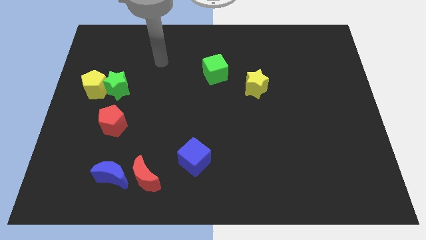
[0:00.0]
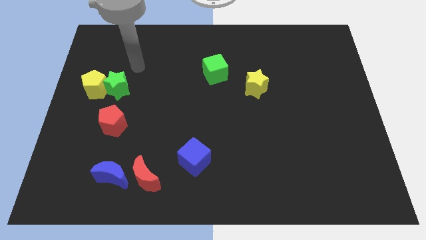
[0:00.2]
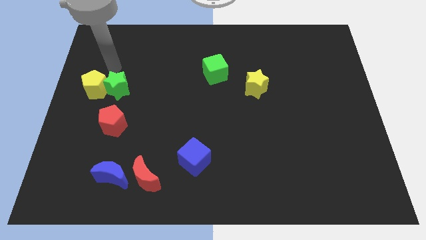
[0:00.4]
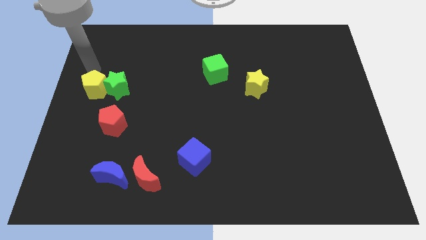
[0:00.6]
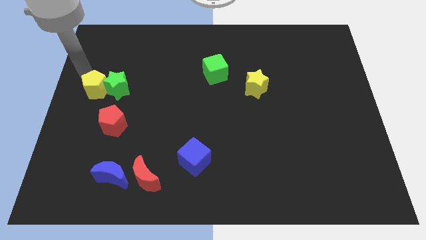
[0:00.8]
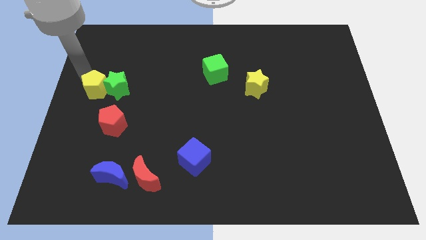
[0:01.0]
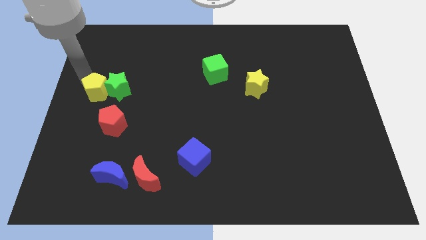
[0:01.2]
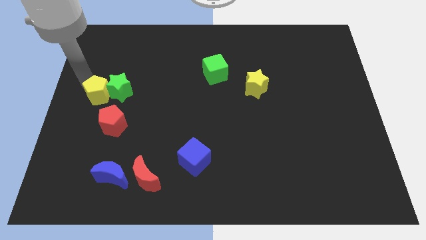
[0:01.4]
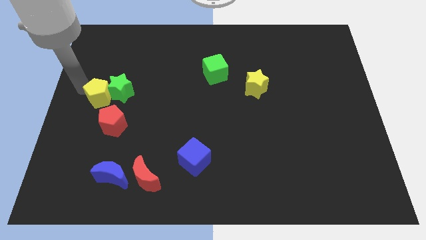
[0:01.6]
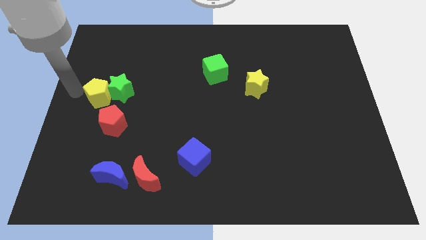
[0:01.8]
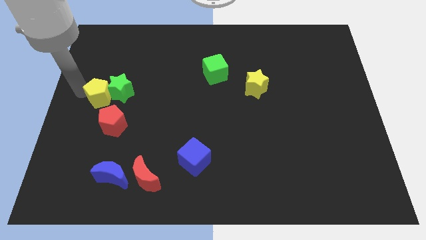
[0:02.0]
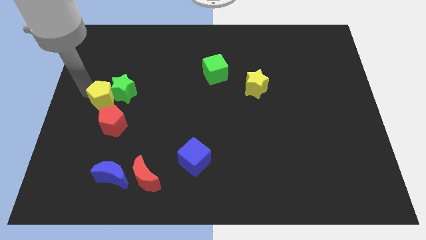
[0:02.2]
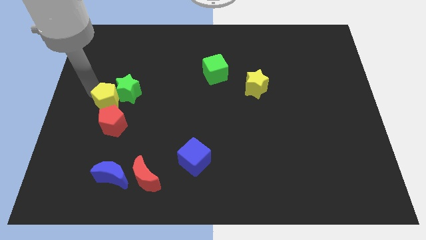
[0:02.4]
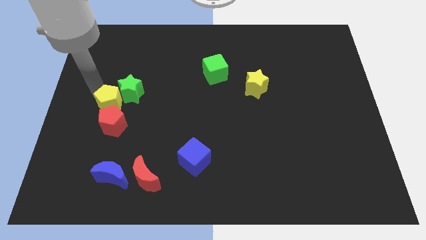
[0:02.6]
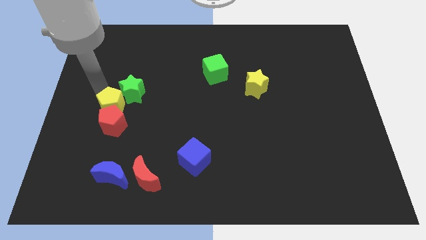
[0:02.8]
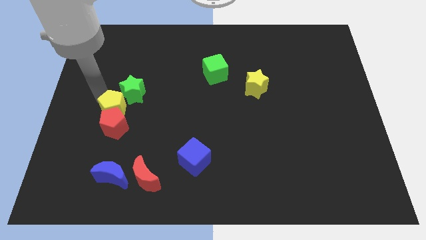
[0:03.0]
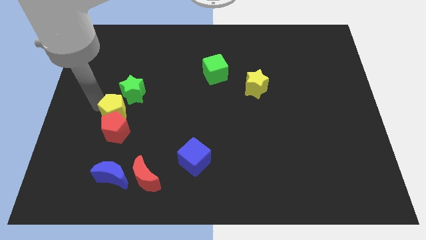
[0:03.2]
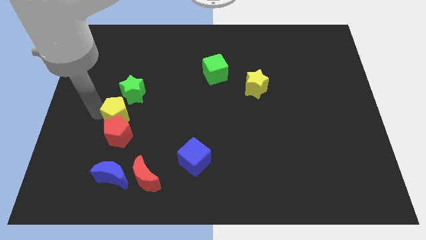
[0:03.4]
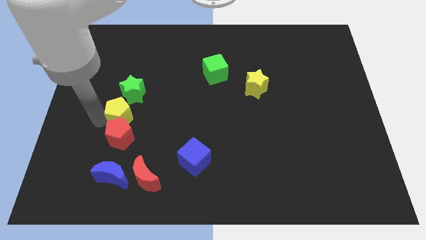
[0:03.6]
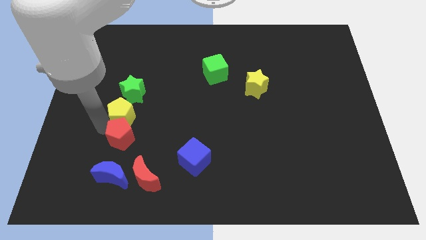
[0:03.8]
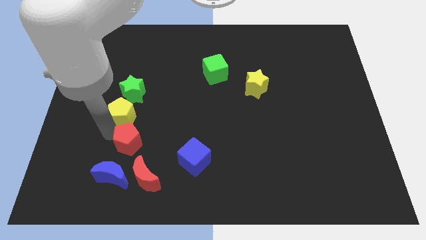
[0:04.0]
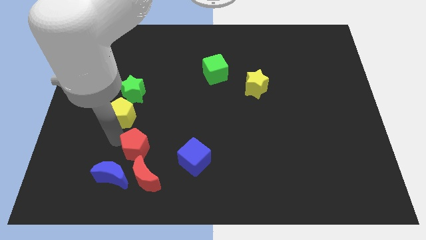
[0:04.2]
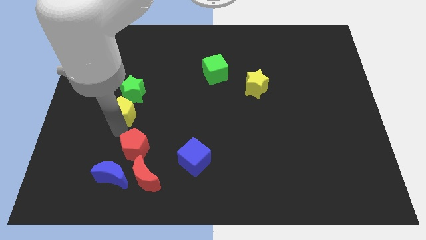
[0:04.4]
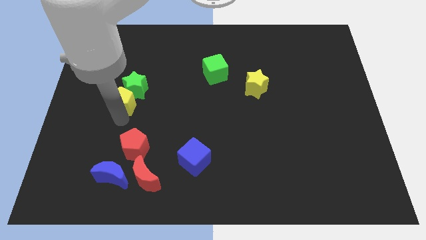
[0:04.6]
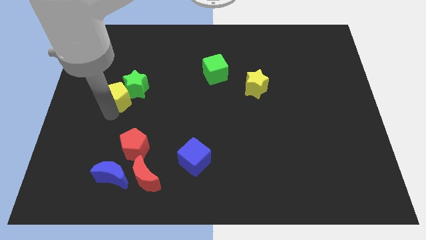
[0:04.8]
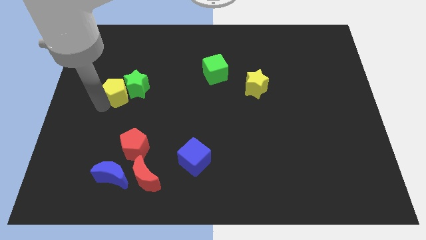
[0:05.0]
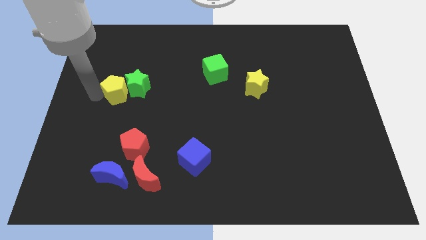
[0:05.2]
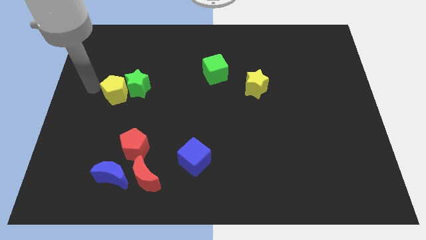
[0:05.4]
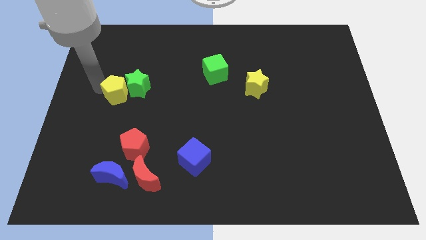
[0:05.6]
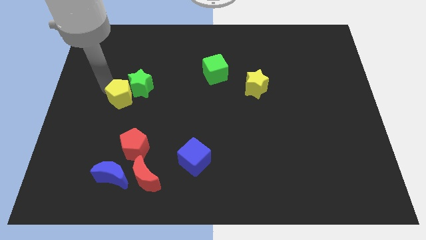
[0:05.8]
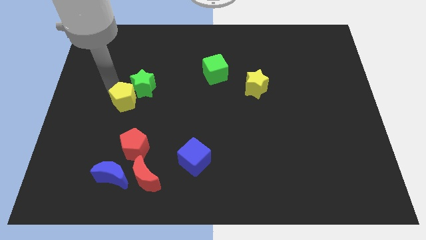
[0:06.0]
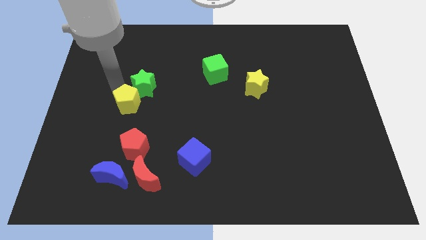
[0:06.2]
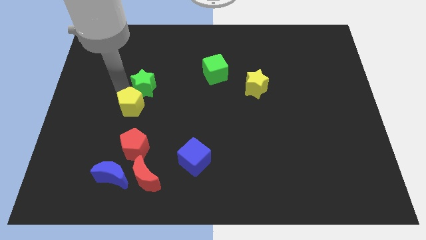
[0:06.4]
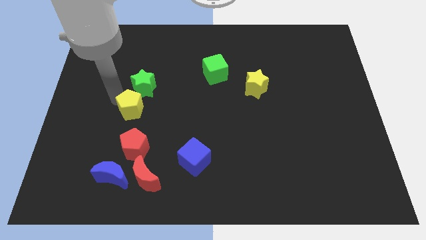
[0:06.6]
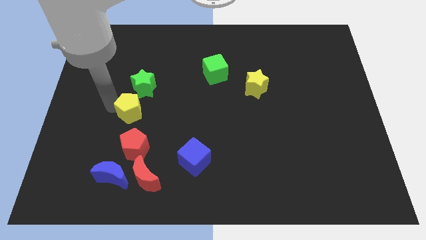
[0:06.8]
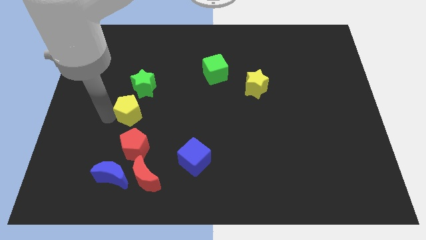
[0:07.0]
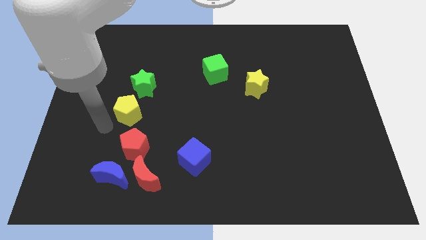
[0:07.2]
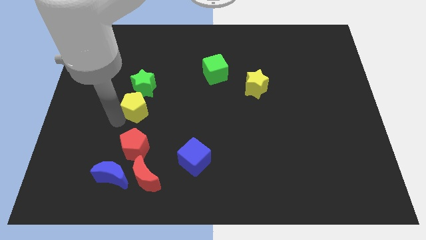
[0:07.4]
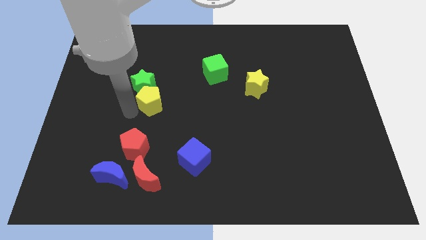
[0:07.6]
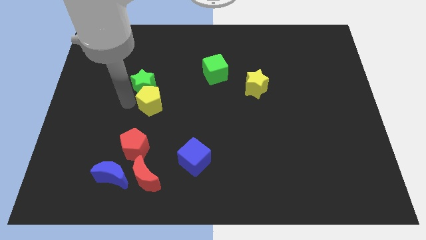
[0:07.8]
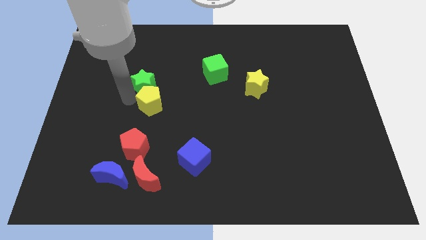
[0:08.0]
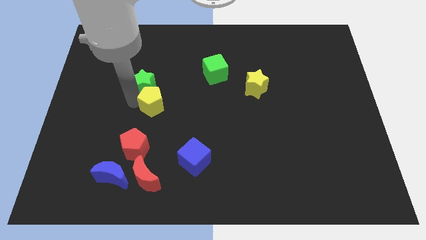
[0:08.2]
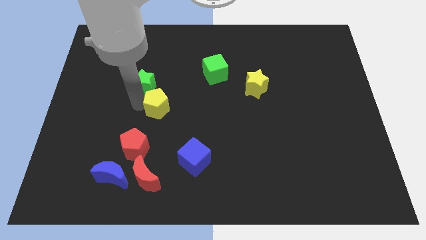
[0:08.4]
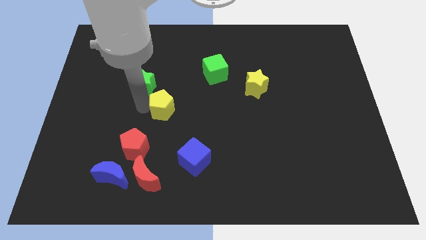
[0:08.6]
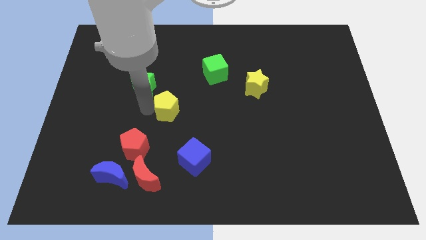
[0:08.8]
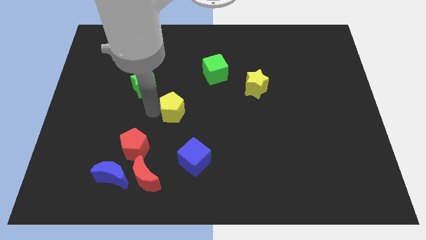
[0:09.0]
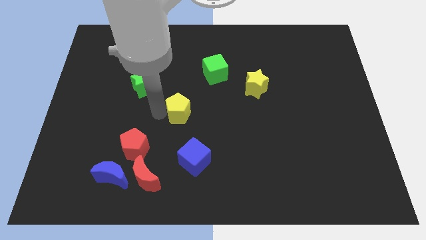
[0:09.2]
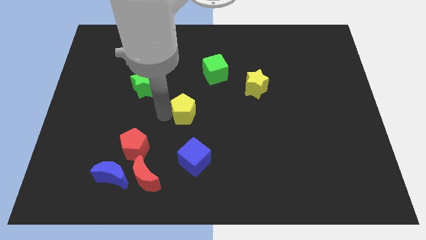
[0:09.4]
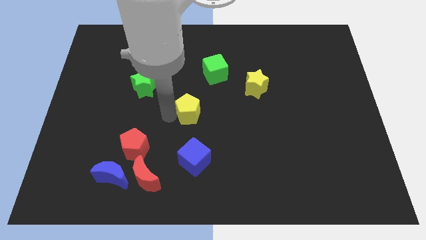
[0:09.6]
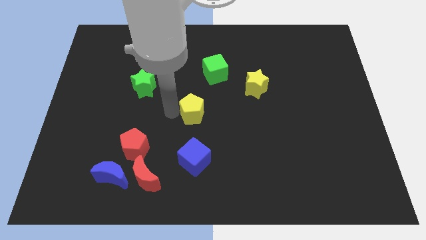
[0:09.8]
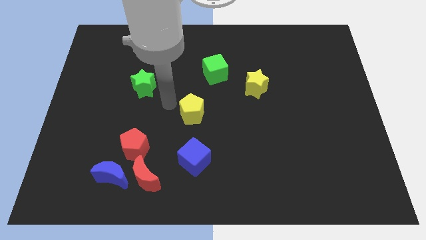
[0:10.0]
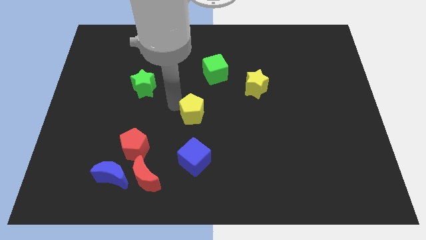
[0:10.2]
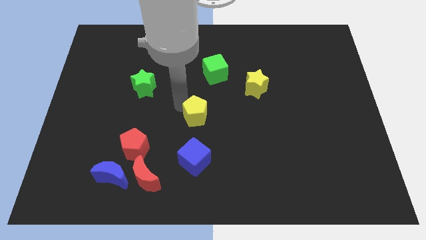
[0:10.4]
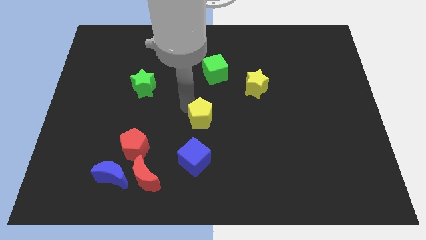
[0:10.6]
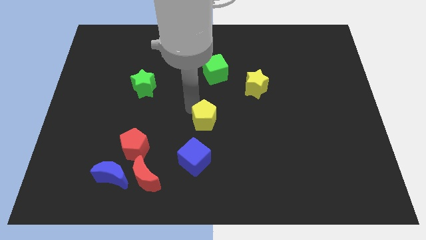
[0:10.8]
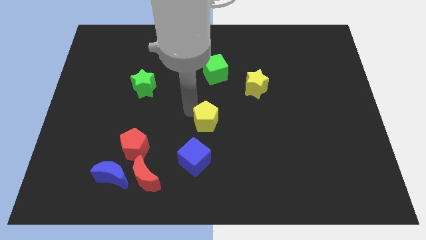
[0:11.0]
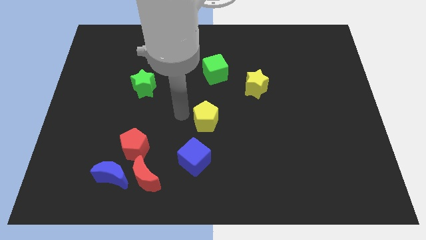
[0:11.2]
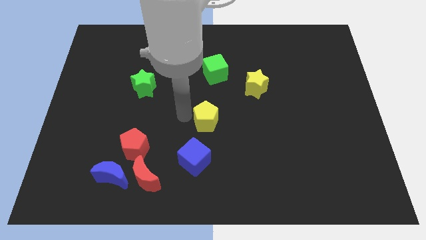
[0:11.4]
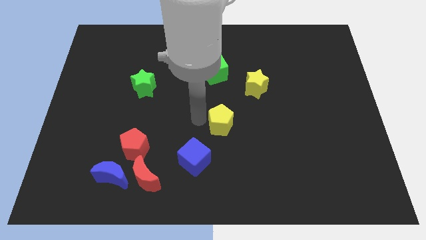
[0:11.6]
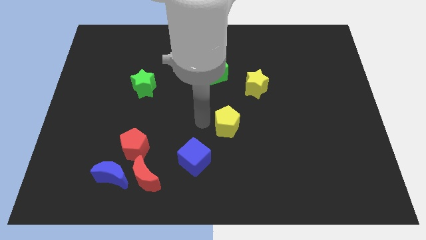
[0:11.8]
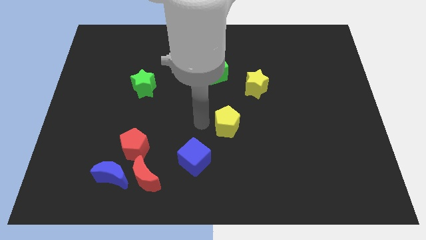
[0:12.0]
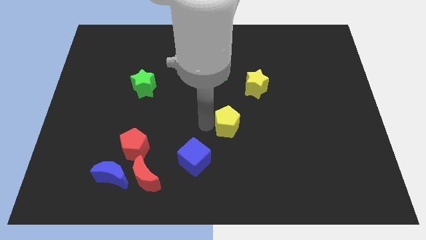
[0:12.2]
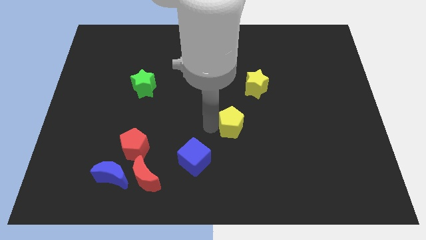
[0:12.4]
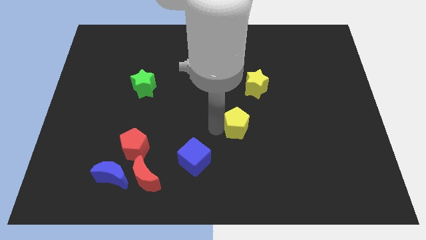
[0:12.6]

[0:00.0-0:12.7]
put the yellow pentagon to the bottom side of the yellow star
